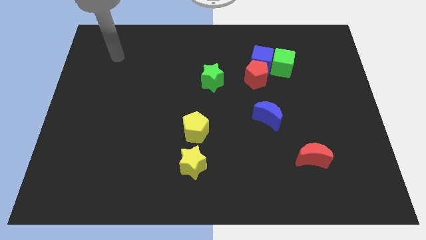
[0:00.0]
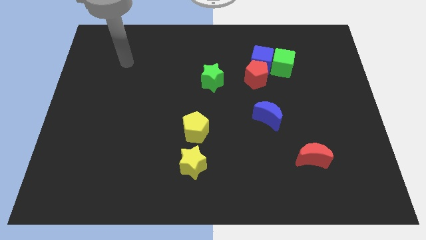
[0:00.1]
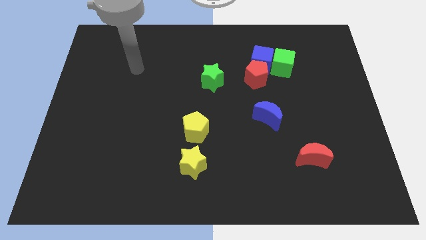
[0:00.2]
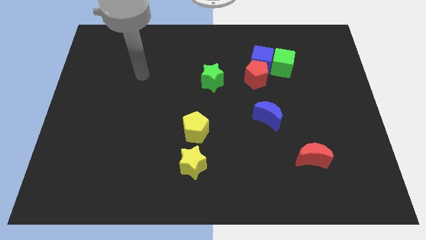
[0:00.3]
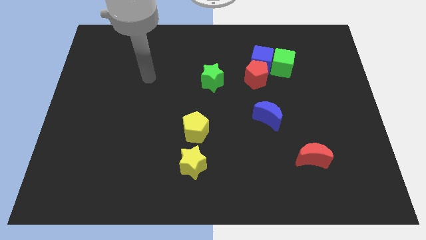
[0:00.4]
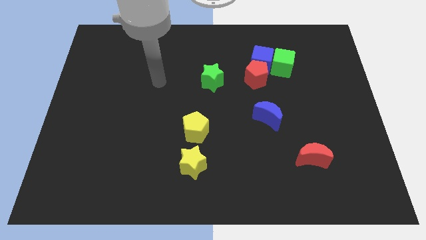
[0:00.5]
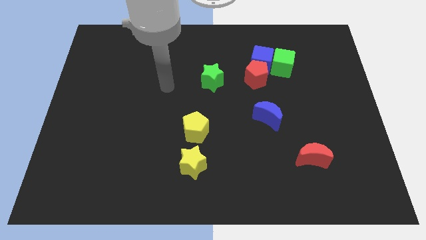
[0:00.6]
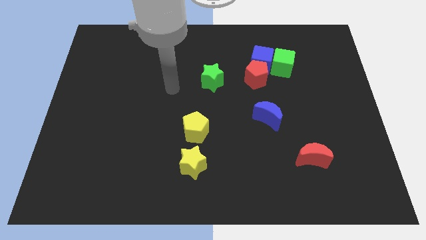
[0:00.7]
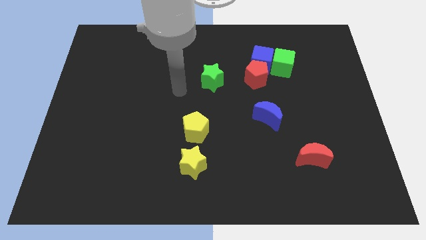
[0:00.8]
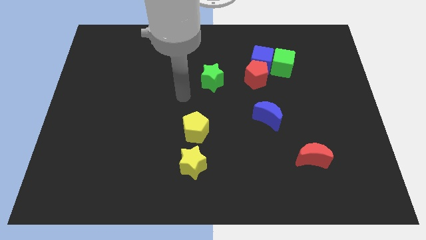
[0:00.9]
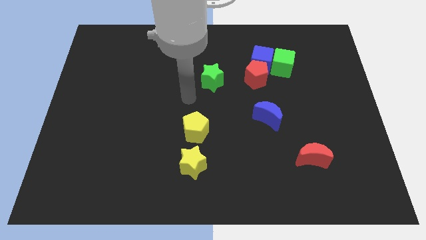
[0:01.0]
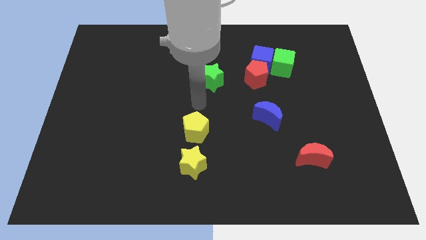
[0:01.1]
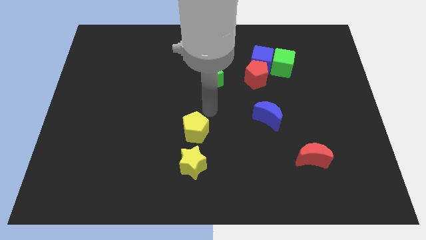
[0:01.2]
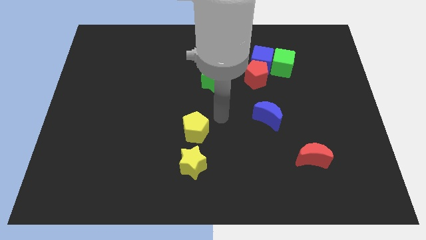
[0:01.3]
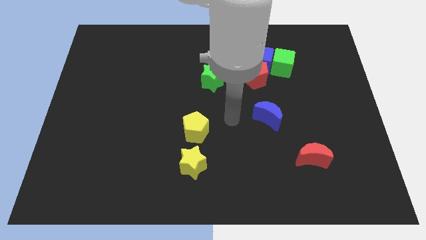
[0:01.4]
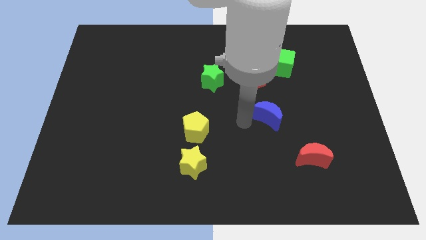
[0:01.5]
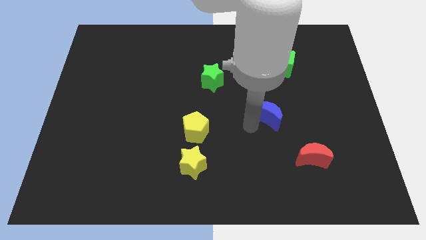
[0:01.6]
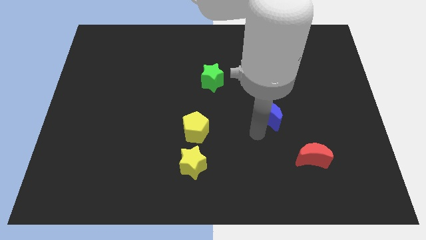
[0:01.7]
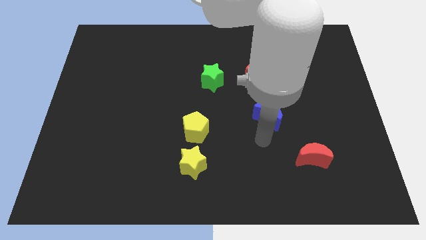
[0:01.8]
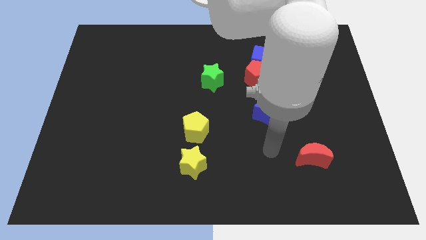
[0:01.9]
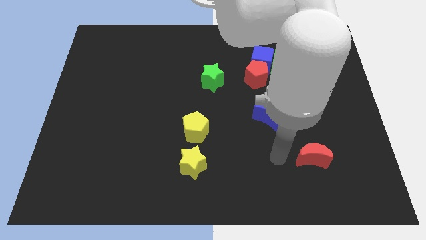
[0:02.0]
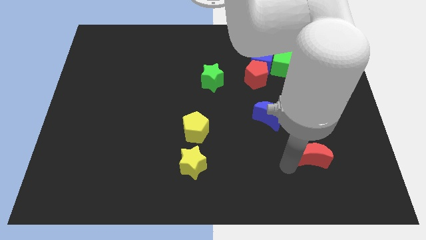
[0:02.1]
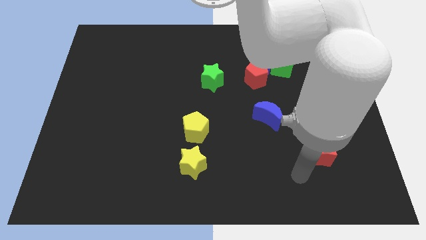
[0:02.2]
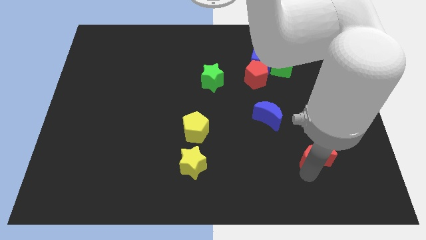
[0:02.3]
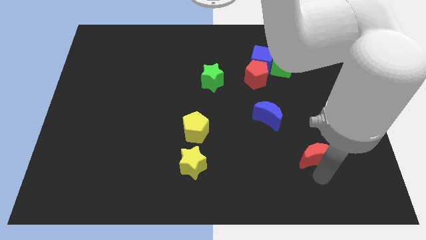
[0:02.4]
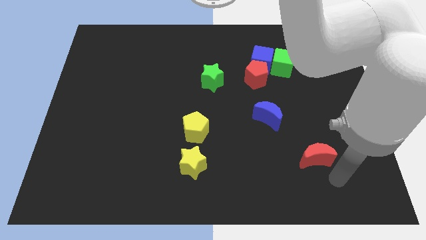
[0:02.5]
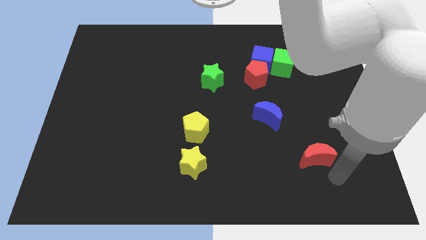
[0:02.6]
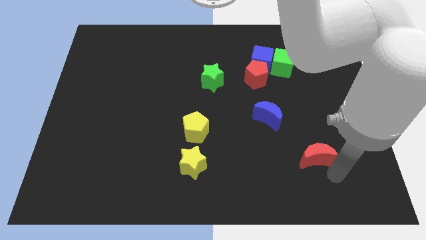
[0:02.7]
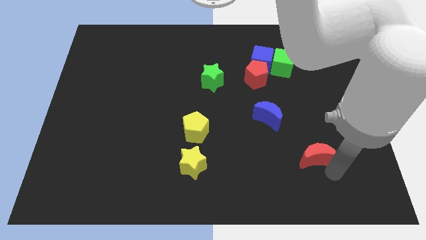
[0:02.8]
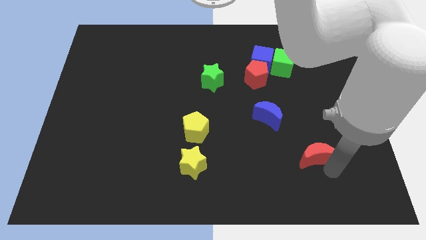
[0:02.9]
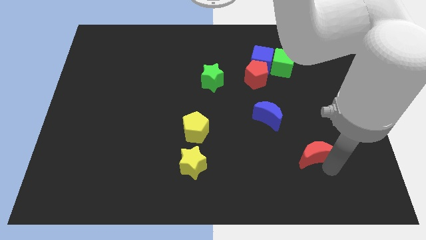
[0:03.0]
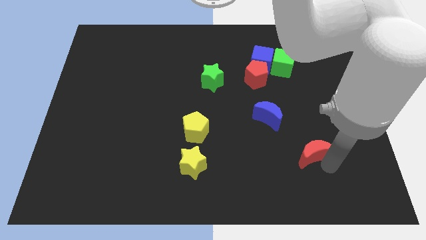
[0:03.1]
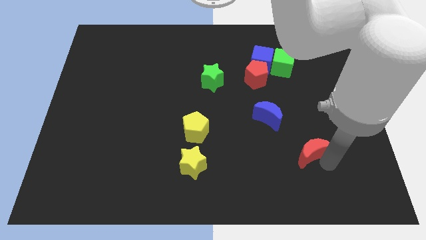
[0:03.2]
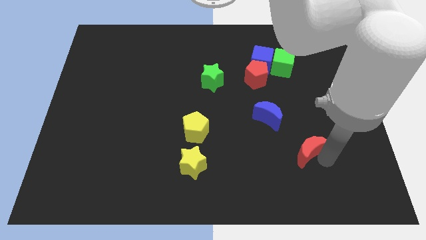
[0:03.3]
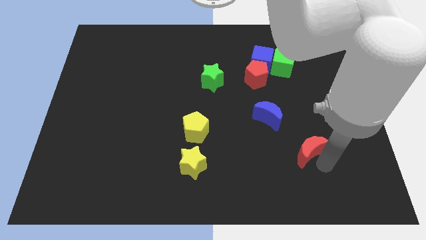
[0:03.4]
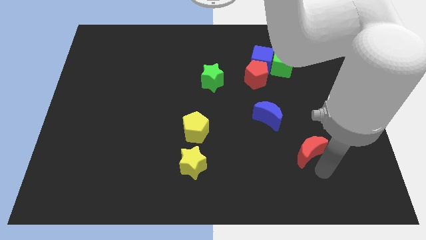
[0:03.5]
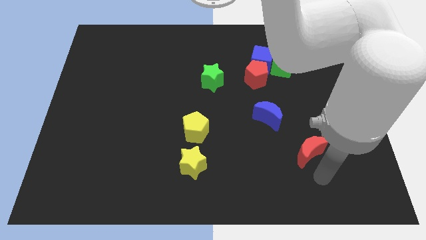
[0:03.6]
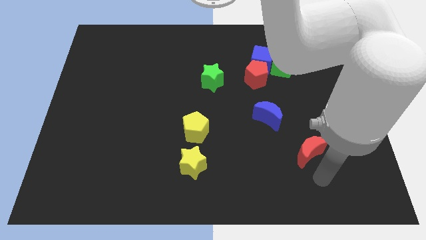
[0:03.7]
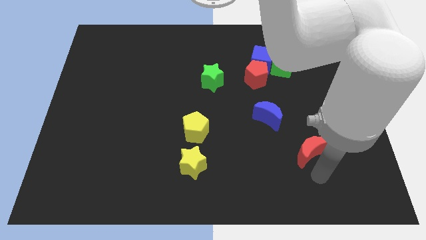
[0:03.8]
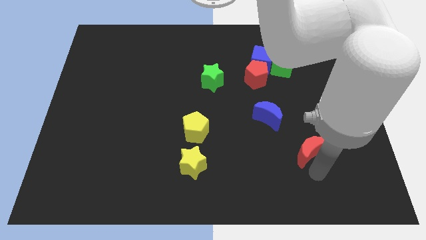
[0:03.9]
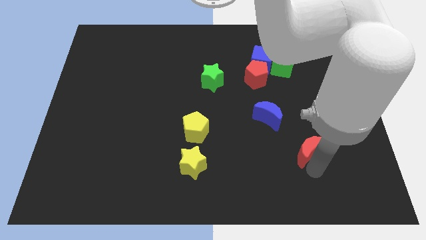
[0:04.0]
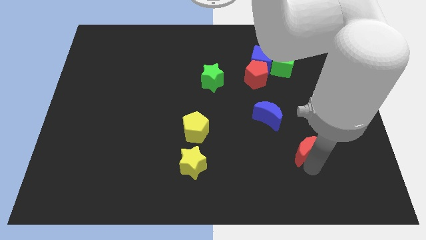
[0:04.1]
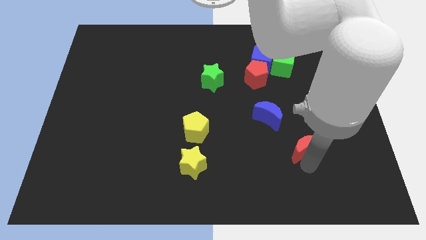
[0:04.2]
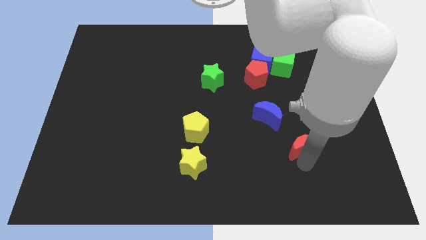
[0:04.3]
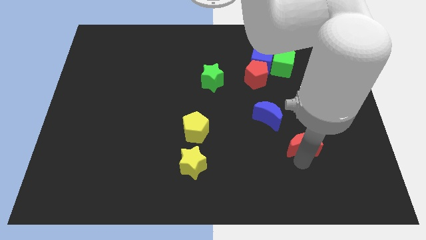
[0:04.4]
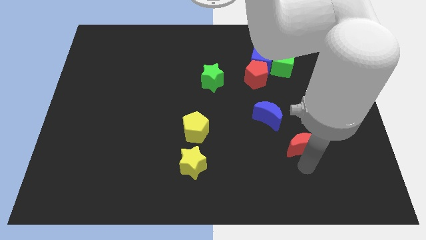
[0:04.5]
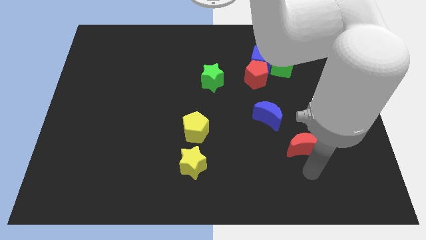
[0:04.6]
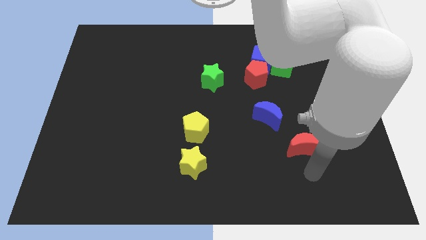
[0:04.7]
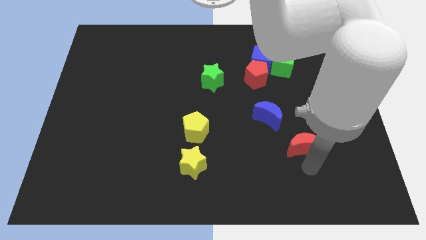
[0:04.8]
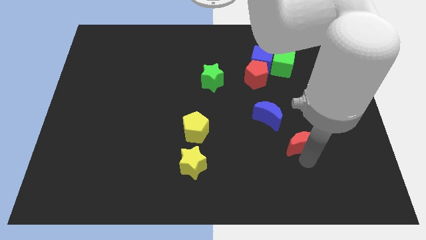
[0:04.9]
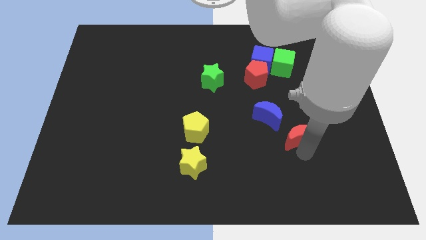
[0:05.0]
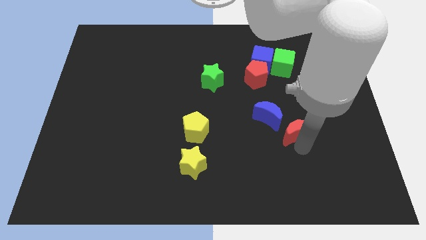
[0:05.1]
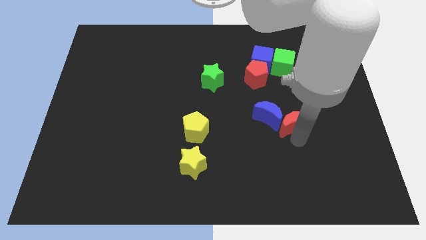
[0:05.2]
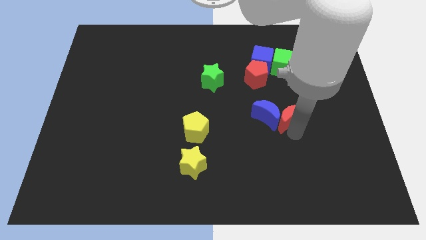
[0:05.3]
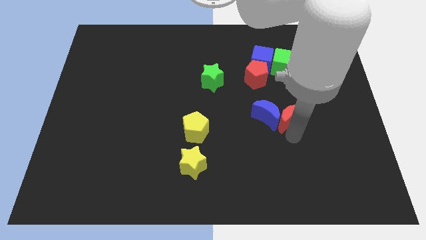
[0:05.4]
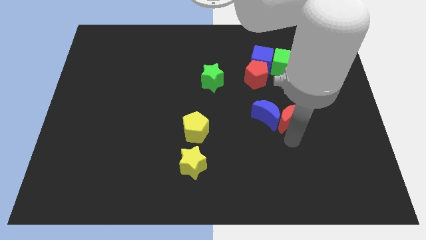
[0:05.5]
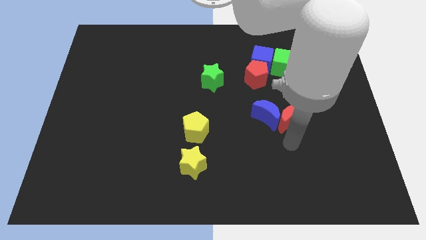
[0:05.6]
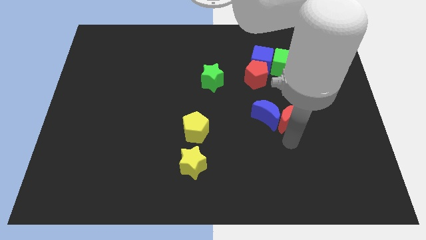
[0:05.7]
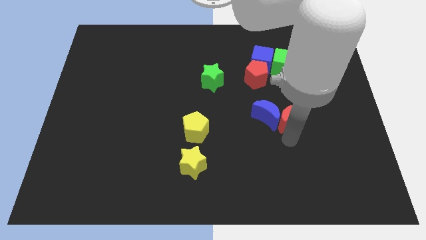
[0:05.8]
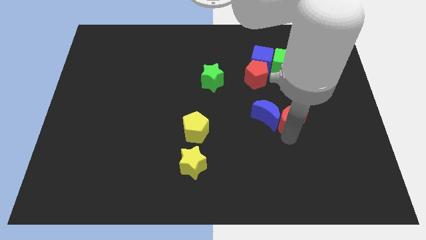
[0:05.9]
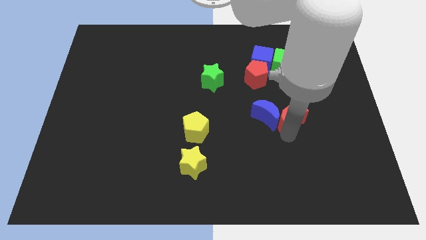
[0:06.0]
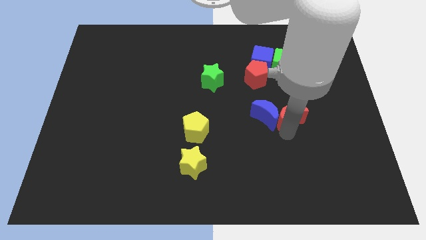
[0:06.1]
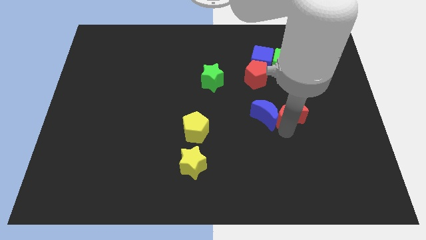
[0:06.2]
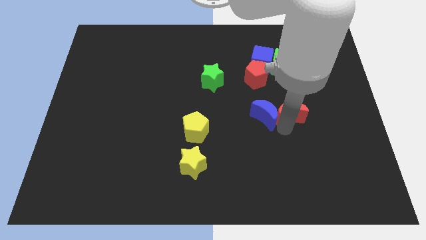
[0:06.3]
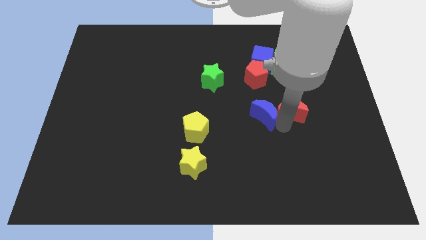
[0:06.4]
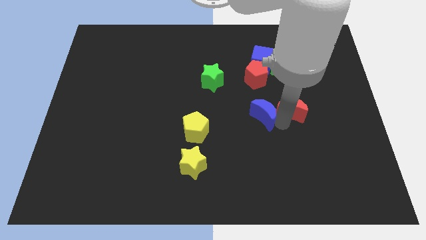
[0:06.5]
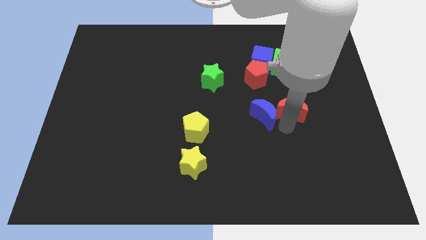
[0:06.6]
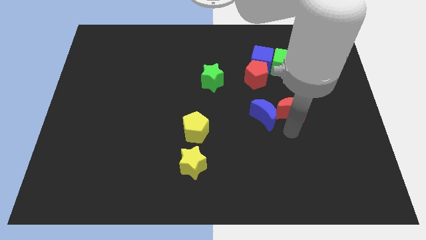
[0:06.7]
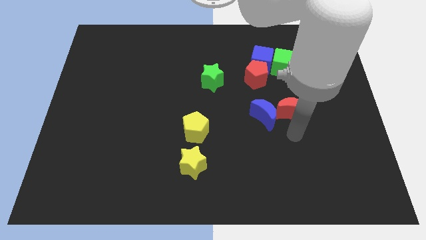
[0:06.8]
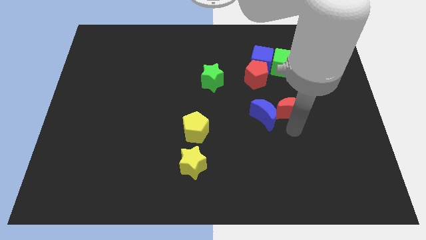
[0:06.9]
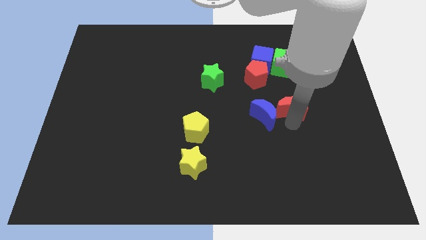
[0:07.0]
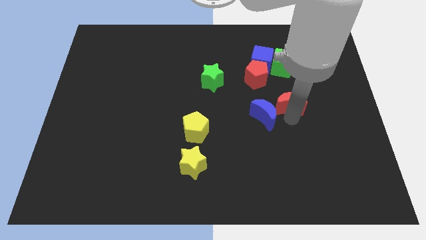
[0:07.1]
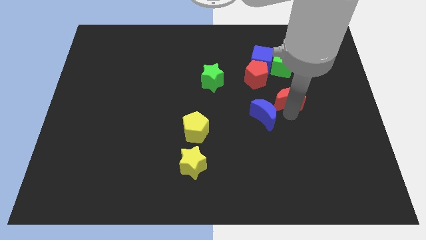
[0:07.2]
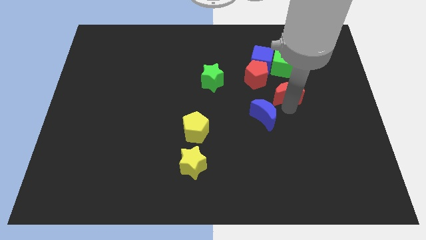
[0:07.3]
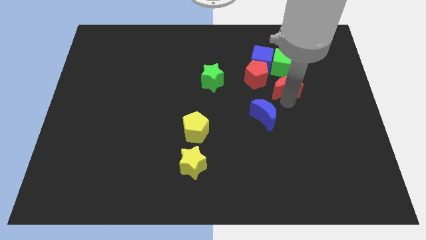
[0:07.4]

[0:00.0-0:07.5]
slide the red moon to the bottom right side of the blue cube
